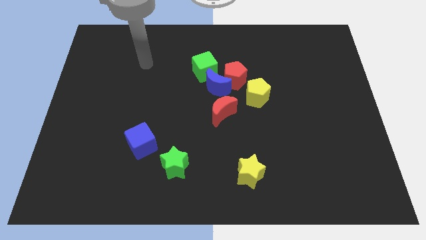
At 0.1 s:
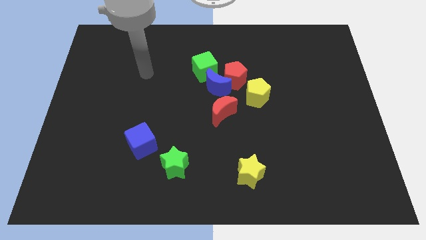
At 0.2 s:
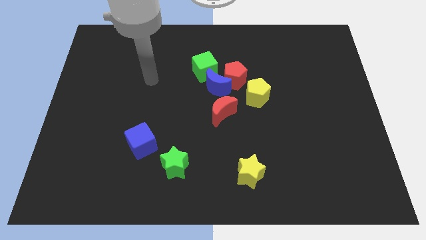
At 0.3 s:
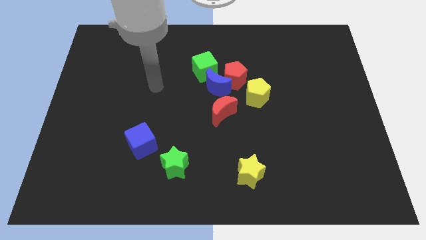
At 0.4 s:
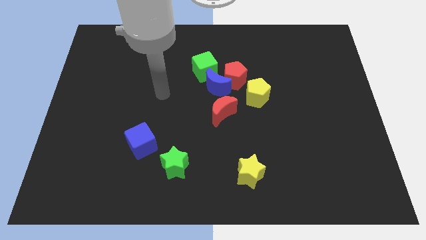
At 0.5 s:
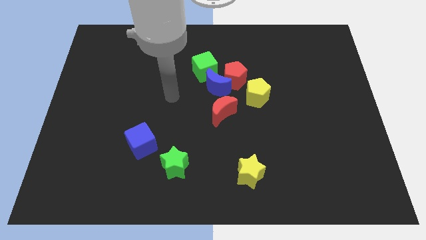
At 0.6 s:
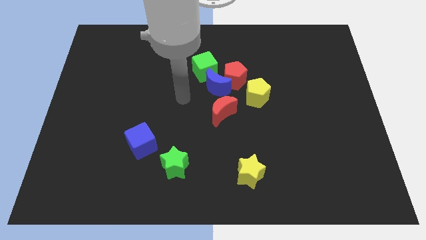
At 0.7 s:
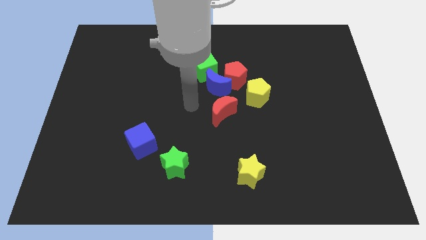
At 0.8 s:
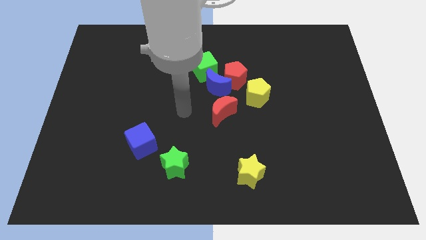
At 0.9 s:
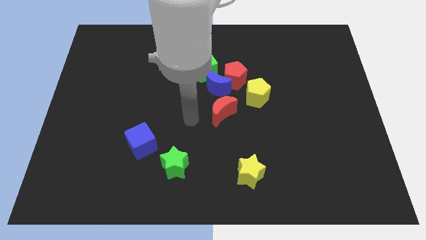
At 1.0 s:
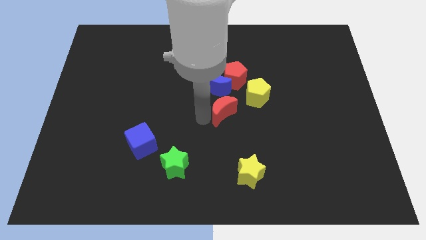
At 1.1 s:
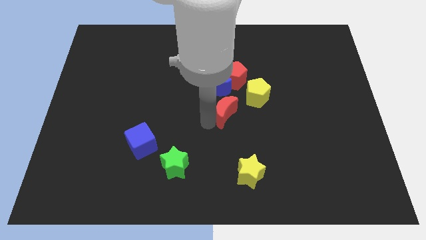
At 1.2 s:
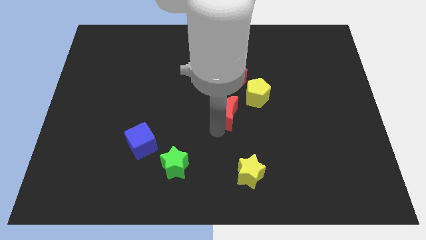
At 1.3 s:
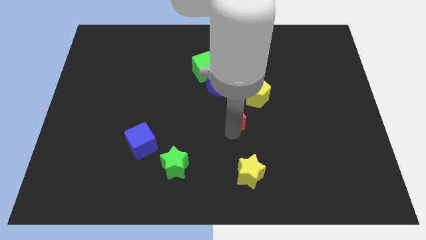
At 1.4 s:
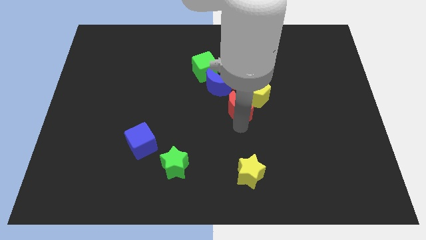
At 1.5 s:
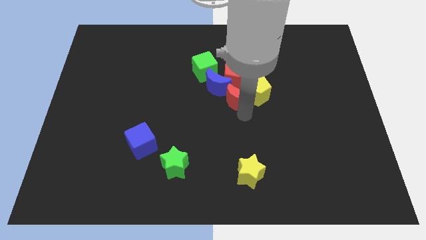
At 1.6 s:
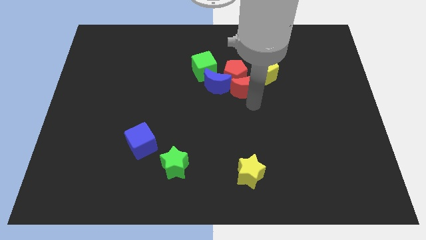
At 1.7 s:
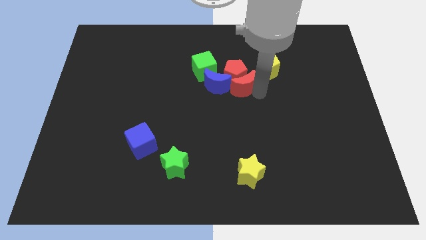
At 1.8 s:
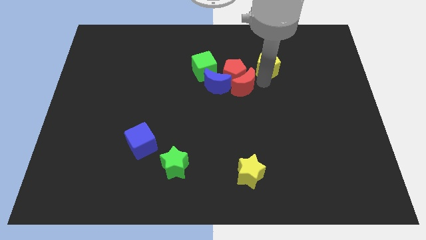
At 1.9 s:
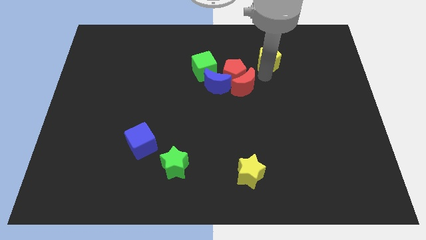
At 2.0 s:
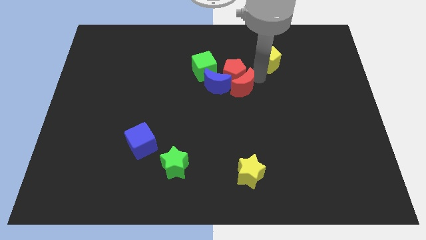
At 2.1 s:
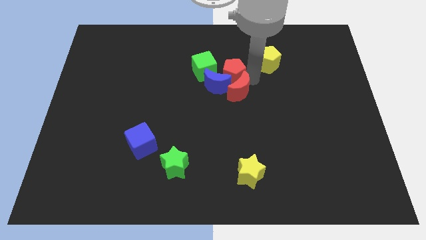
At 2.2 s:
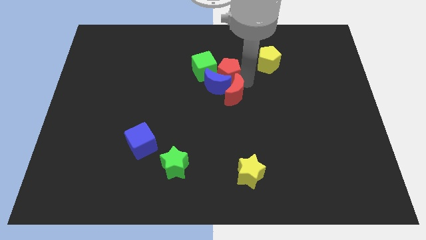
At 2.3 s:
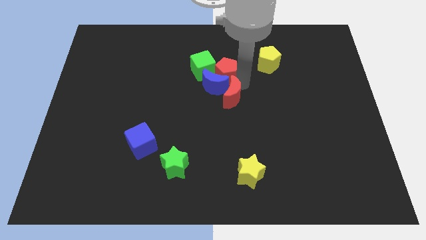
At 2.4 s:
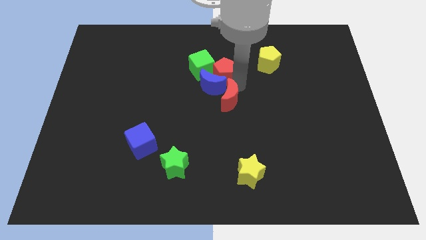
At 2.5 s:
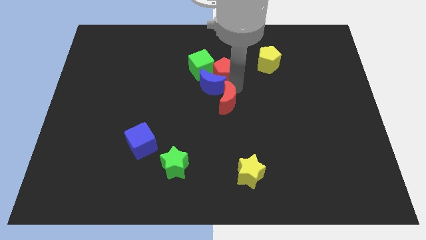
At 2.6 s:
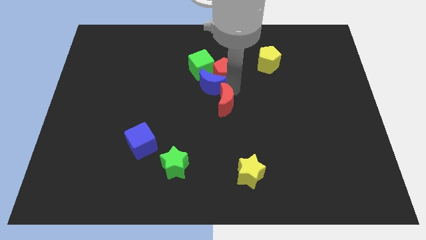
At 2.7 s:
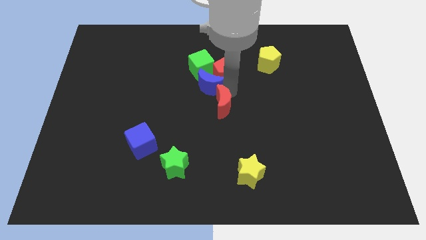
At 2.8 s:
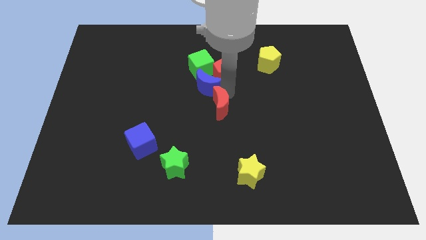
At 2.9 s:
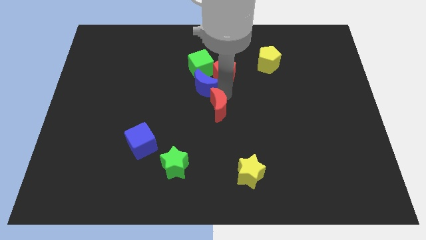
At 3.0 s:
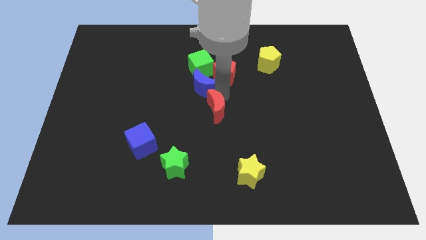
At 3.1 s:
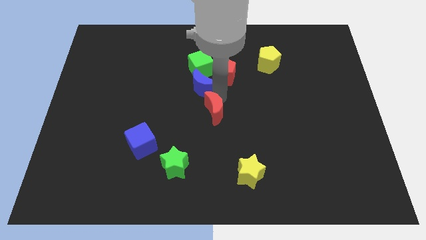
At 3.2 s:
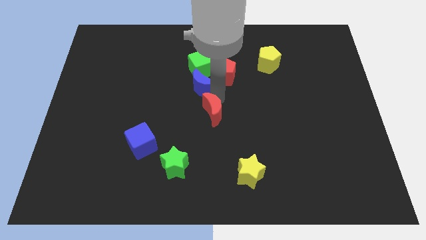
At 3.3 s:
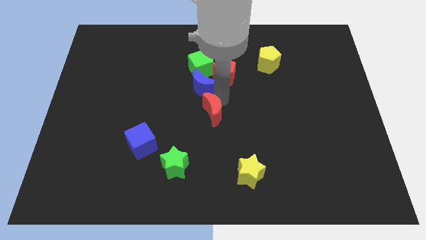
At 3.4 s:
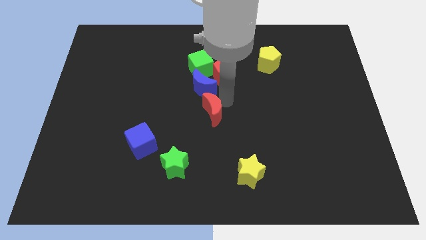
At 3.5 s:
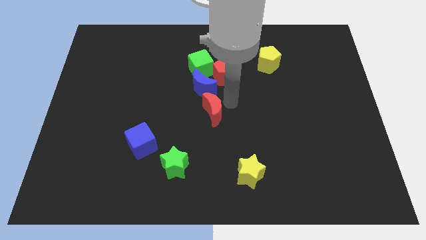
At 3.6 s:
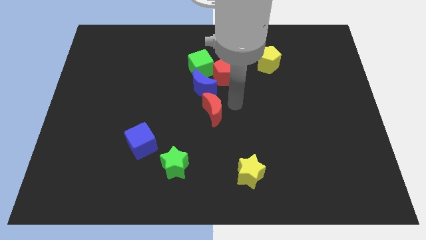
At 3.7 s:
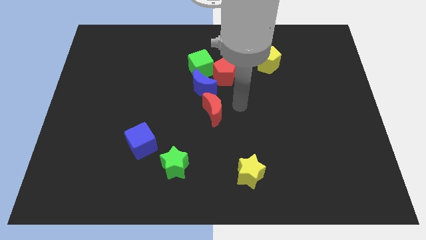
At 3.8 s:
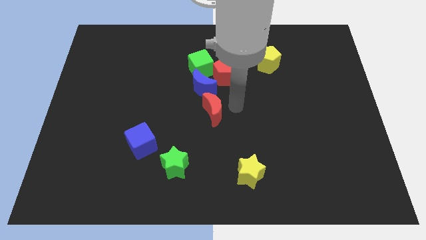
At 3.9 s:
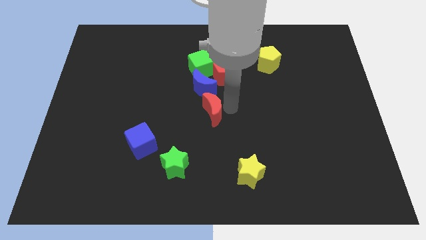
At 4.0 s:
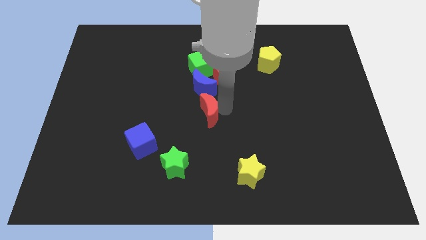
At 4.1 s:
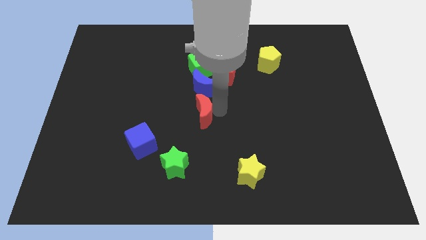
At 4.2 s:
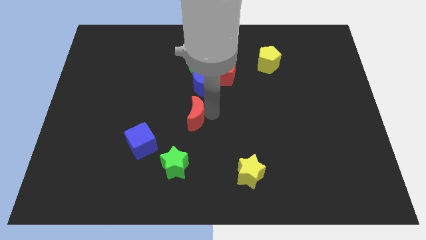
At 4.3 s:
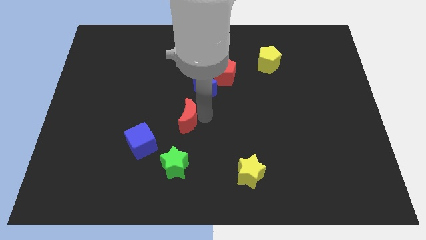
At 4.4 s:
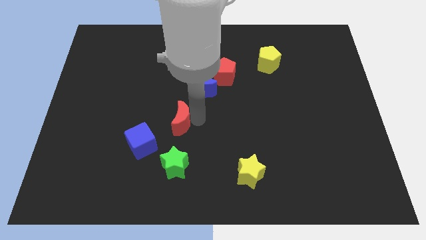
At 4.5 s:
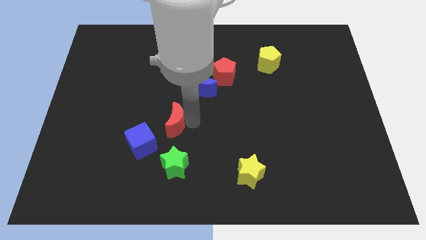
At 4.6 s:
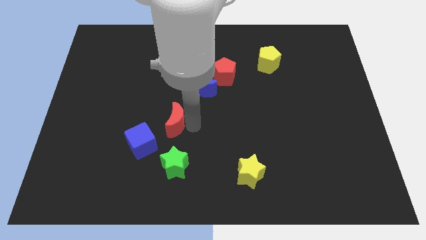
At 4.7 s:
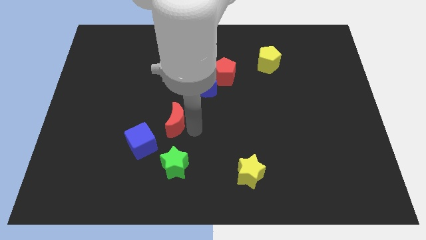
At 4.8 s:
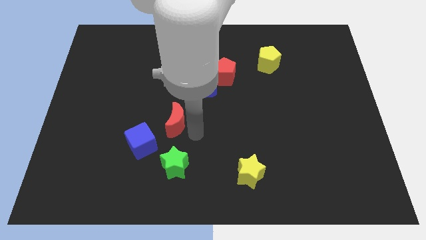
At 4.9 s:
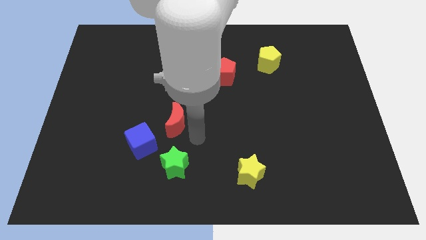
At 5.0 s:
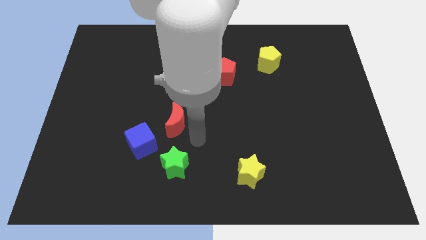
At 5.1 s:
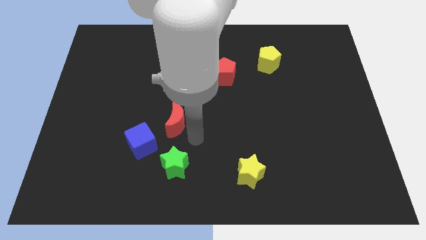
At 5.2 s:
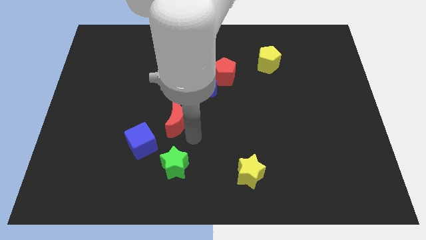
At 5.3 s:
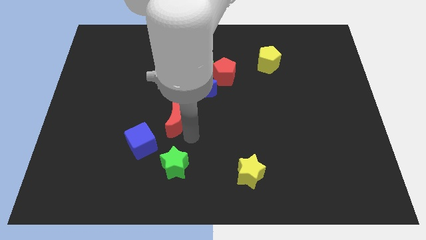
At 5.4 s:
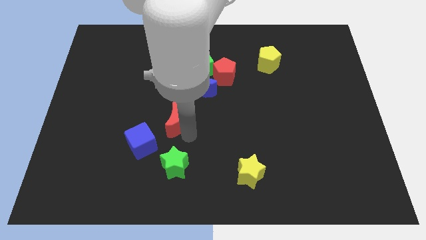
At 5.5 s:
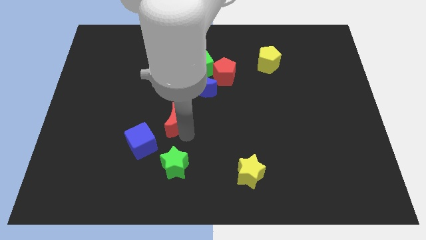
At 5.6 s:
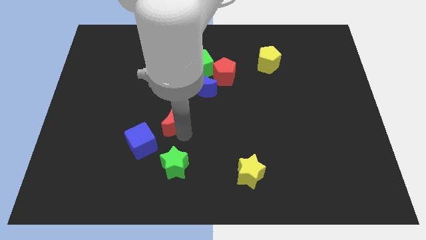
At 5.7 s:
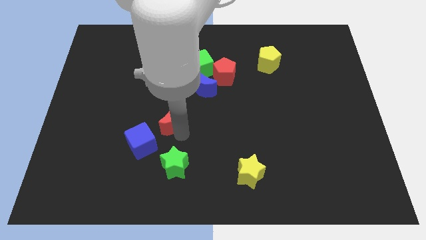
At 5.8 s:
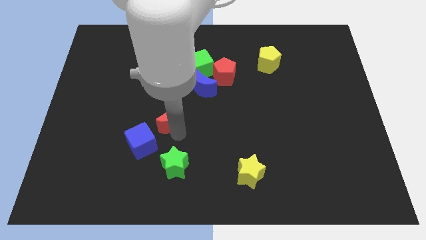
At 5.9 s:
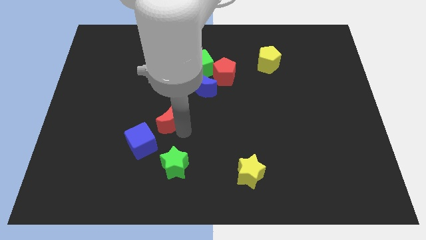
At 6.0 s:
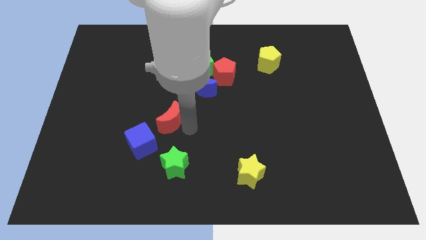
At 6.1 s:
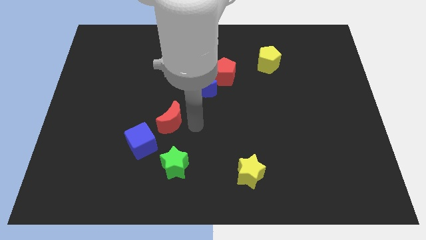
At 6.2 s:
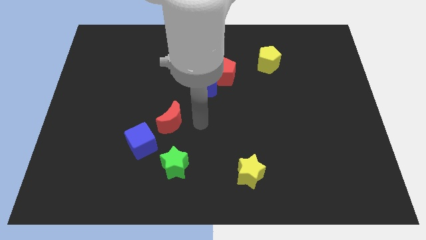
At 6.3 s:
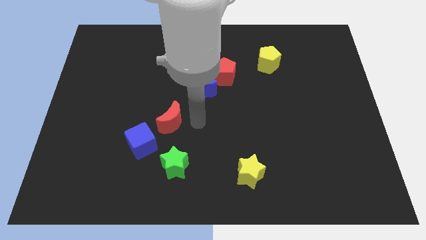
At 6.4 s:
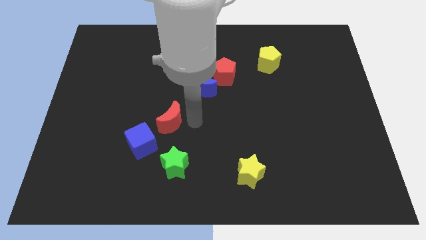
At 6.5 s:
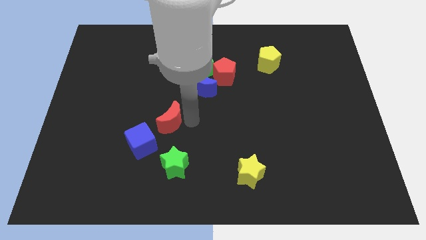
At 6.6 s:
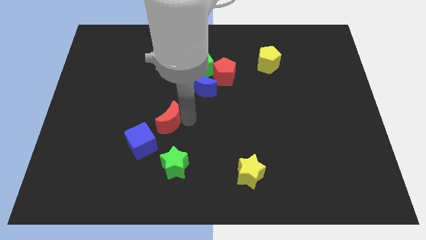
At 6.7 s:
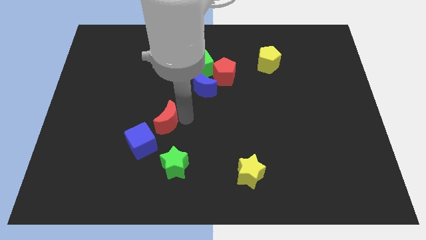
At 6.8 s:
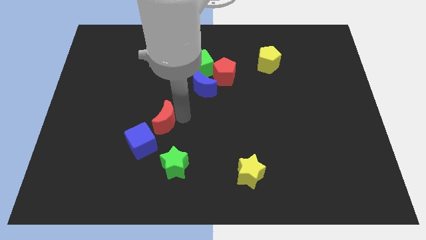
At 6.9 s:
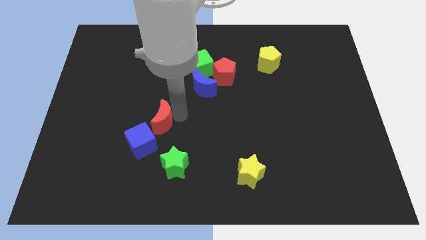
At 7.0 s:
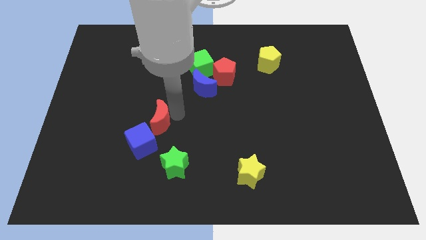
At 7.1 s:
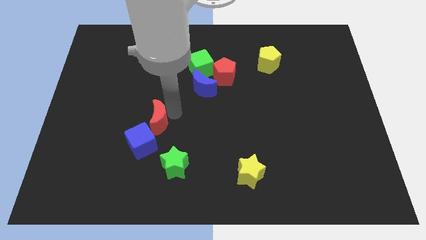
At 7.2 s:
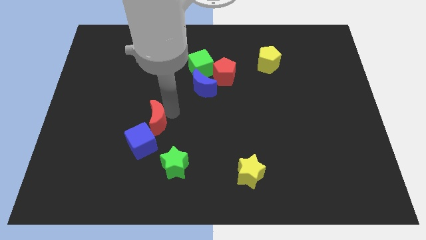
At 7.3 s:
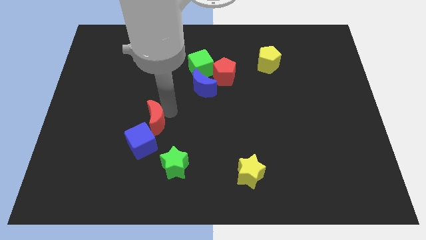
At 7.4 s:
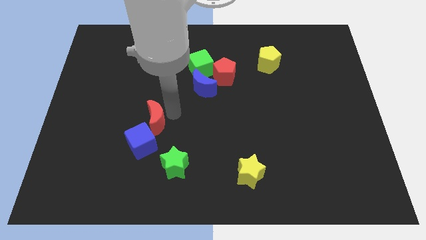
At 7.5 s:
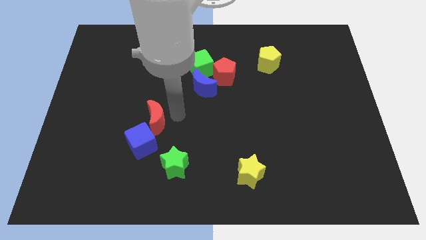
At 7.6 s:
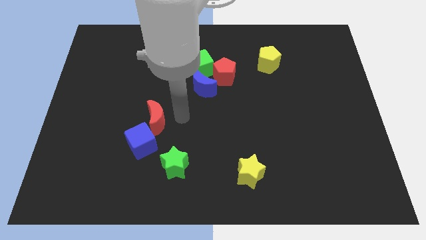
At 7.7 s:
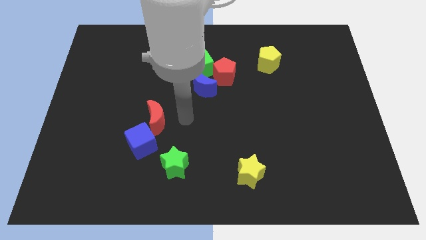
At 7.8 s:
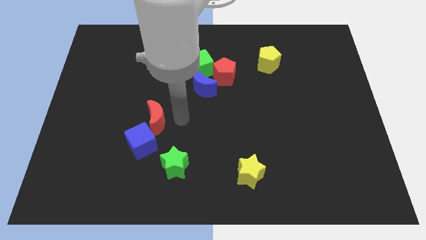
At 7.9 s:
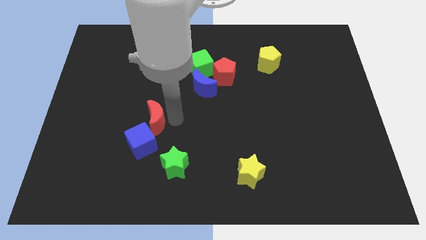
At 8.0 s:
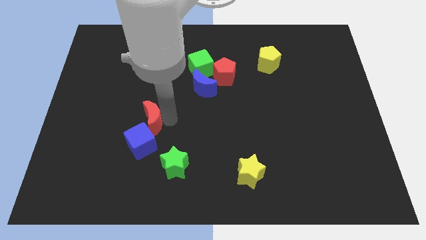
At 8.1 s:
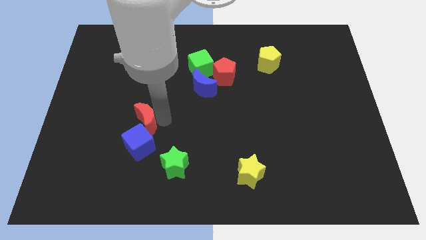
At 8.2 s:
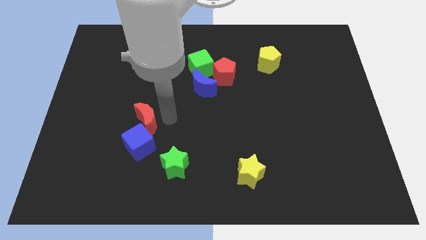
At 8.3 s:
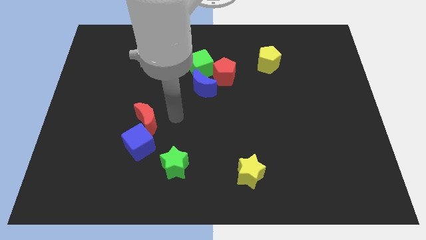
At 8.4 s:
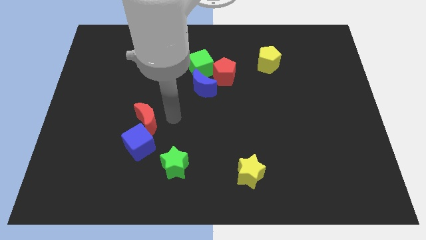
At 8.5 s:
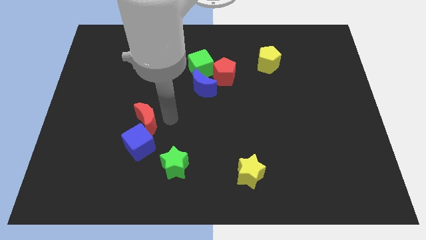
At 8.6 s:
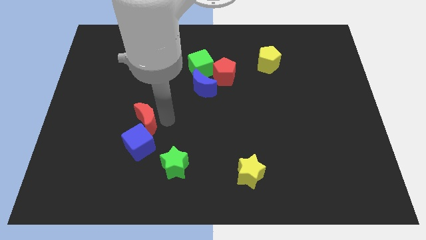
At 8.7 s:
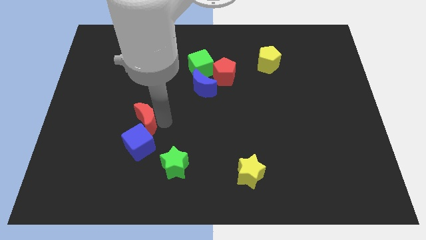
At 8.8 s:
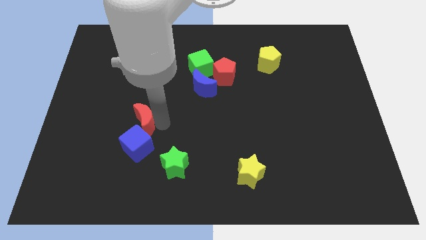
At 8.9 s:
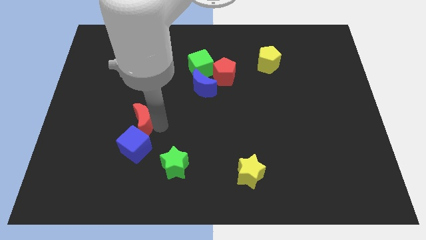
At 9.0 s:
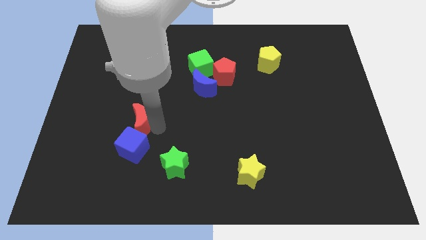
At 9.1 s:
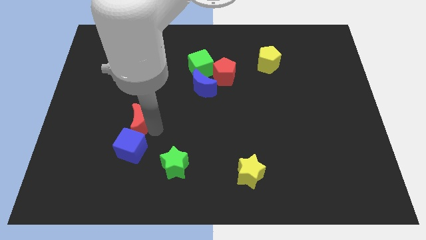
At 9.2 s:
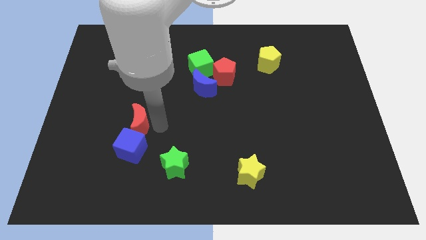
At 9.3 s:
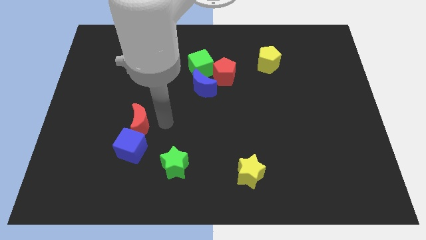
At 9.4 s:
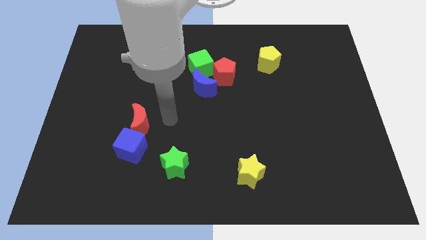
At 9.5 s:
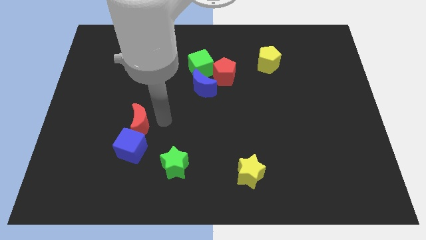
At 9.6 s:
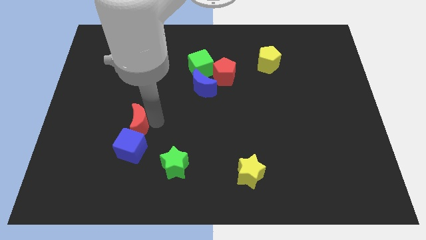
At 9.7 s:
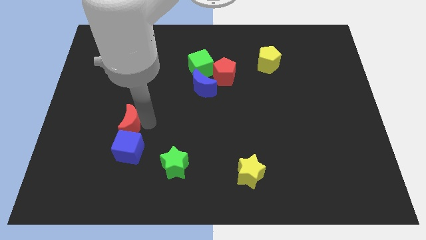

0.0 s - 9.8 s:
slide the red moon to the top left side of the blue cube
